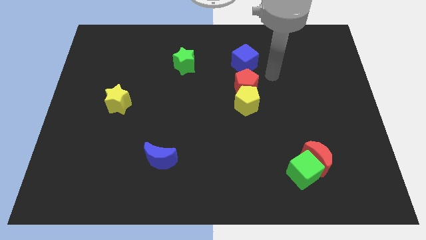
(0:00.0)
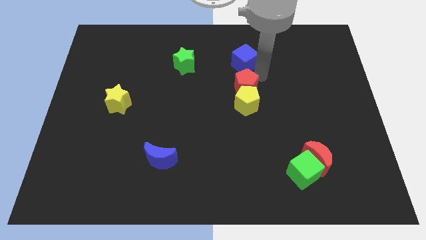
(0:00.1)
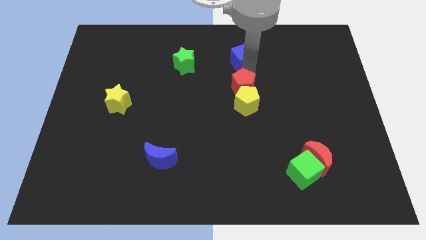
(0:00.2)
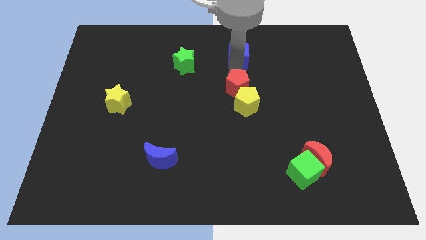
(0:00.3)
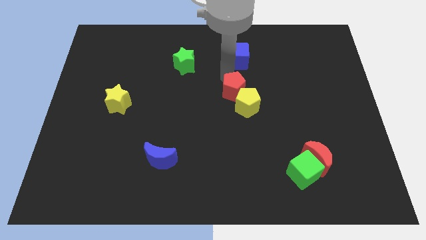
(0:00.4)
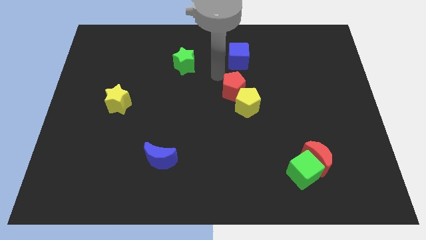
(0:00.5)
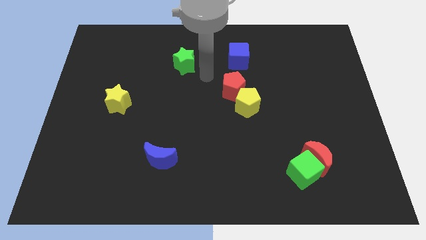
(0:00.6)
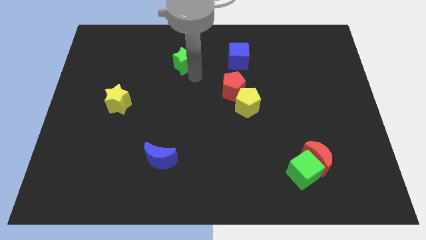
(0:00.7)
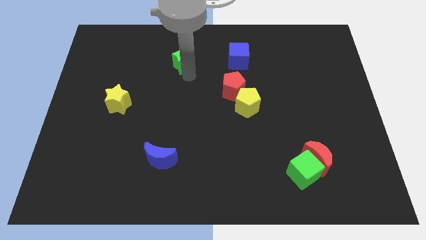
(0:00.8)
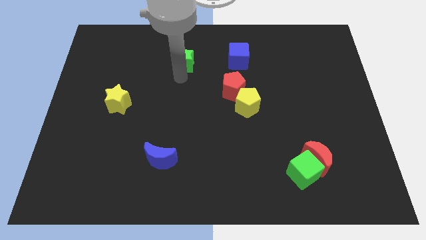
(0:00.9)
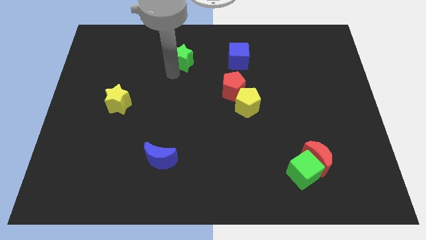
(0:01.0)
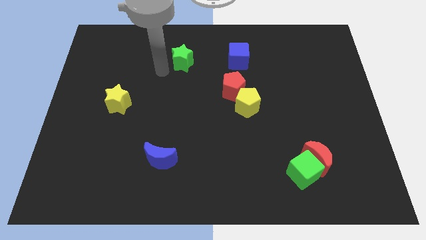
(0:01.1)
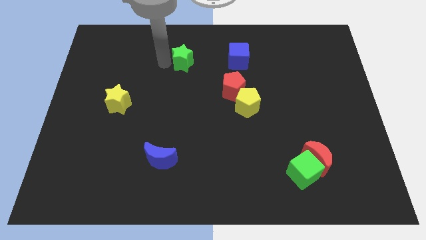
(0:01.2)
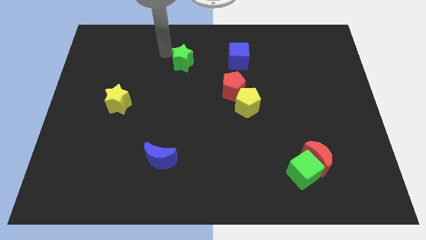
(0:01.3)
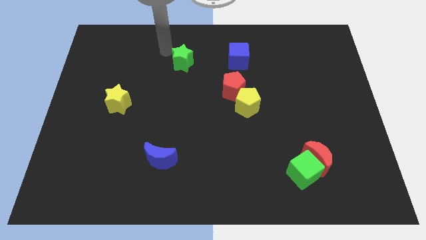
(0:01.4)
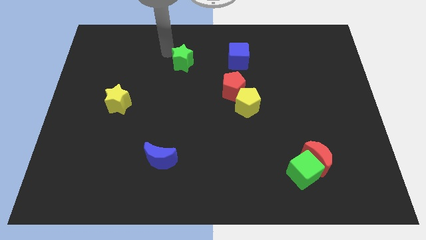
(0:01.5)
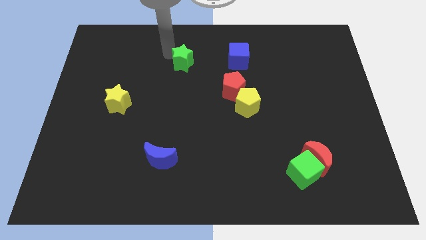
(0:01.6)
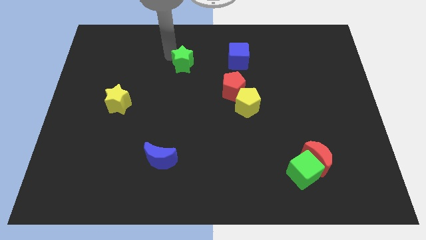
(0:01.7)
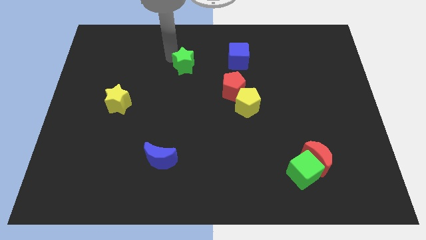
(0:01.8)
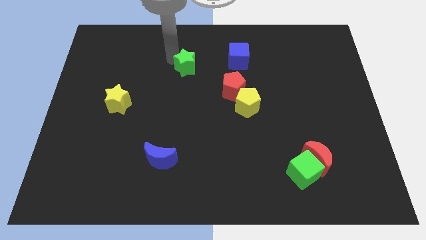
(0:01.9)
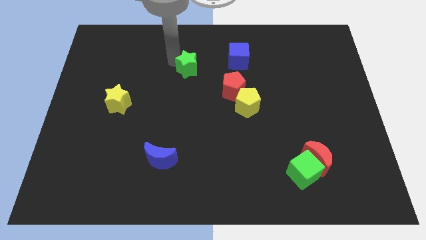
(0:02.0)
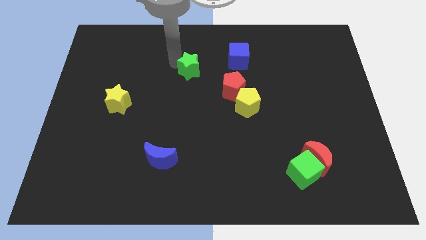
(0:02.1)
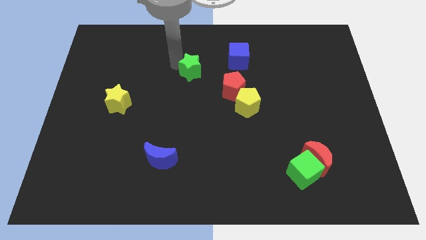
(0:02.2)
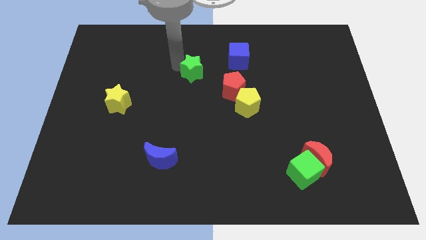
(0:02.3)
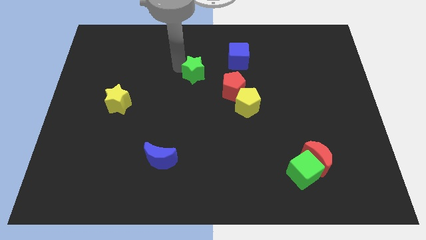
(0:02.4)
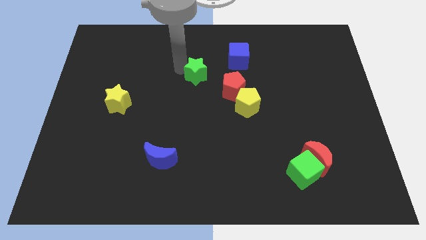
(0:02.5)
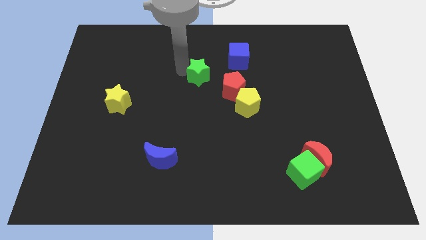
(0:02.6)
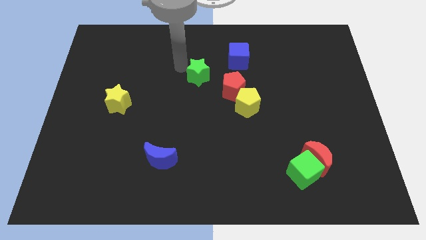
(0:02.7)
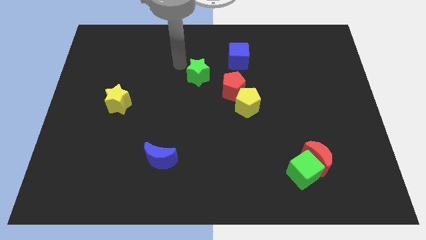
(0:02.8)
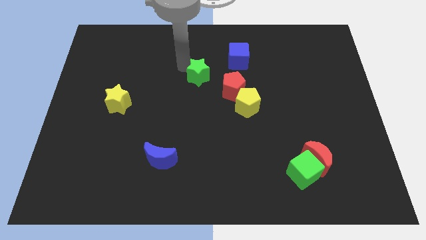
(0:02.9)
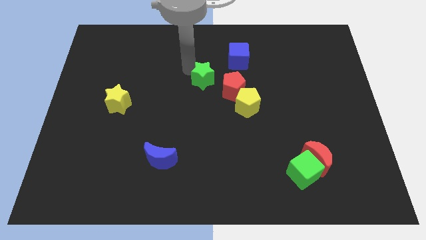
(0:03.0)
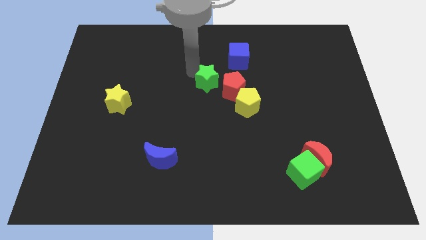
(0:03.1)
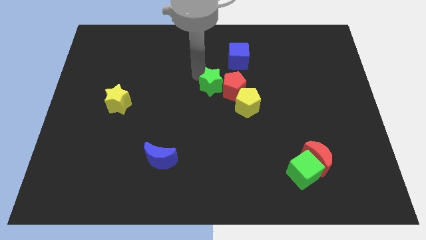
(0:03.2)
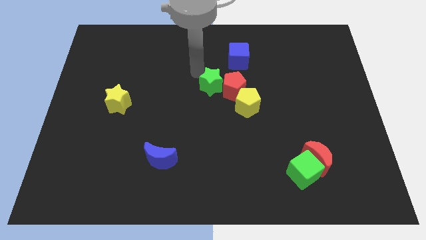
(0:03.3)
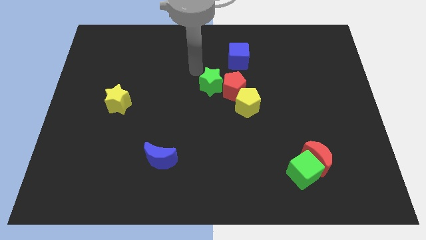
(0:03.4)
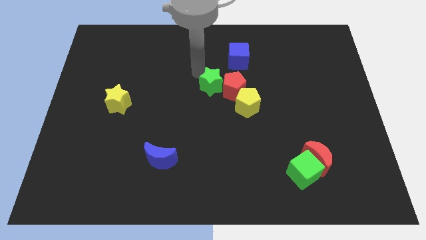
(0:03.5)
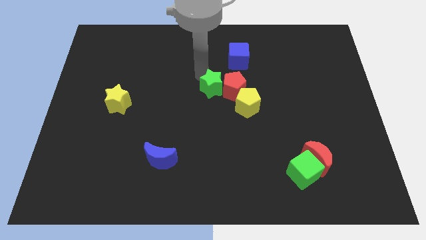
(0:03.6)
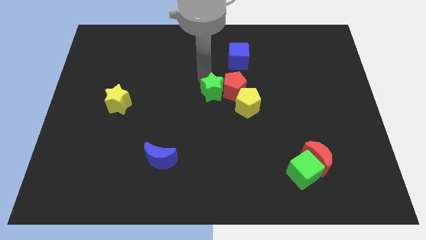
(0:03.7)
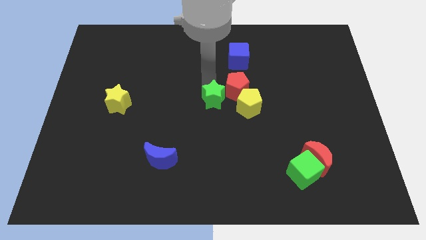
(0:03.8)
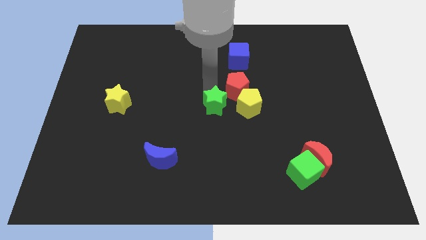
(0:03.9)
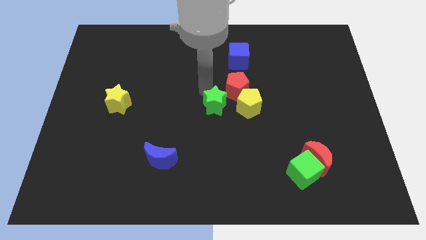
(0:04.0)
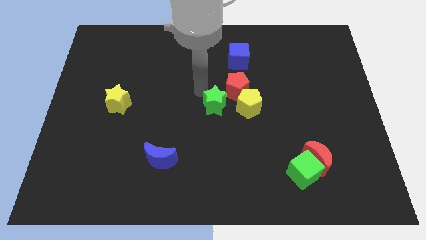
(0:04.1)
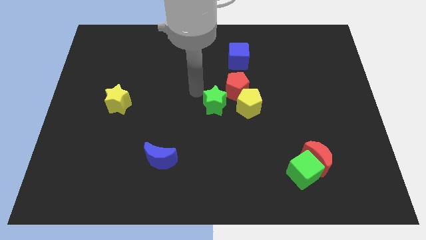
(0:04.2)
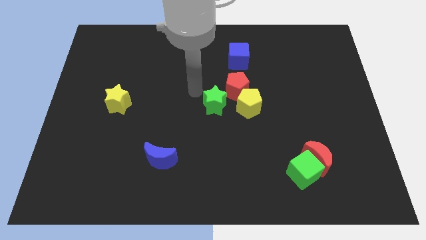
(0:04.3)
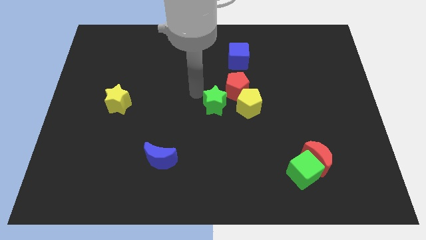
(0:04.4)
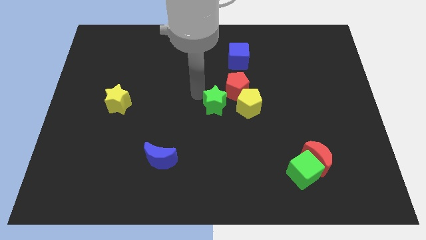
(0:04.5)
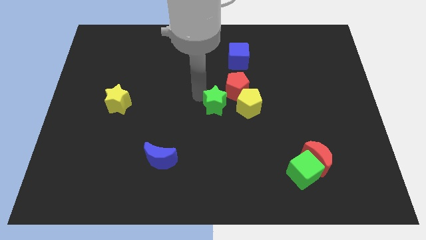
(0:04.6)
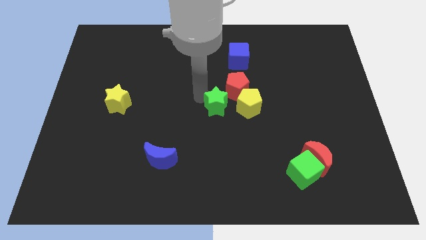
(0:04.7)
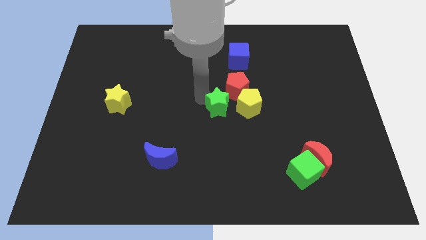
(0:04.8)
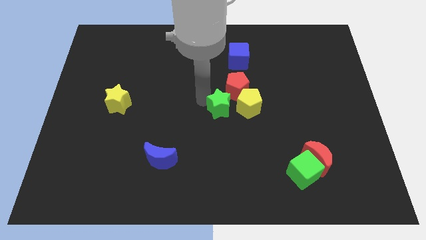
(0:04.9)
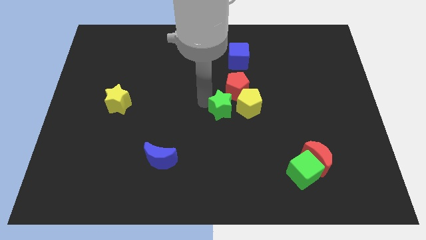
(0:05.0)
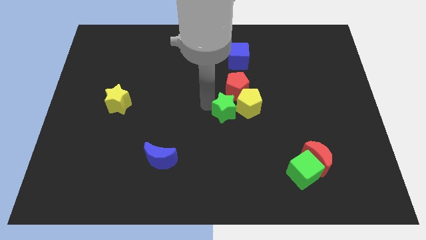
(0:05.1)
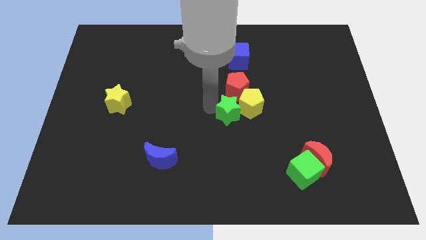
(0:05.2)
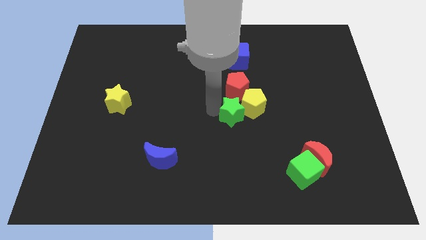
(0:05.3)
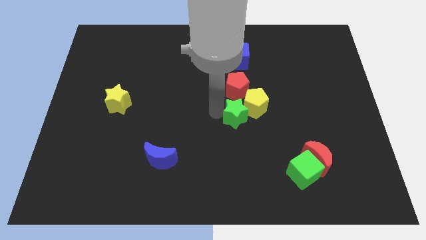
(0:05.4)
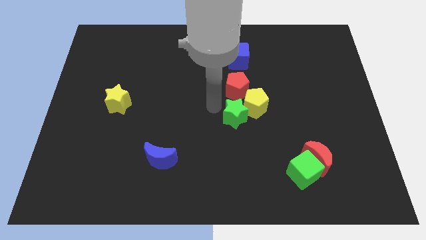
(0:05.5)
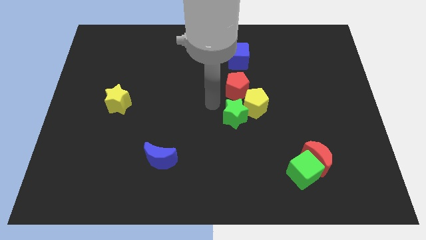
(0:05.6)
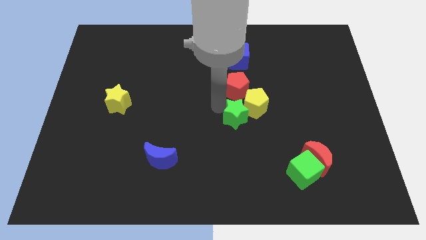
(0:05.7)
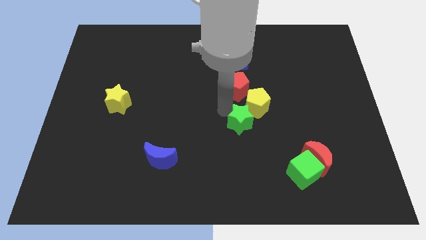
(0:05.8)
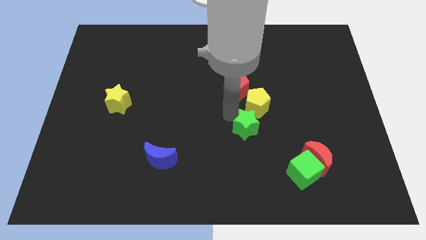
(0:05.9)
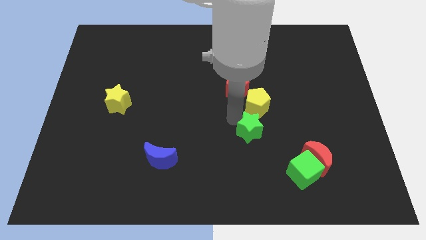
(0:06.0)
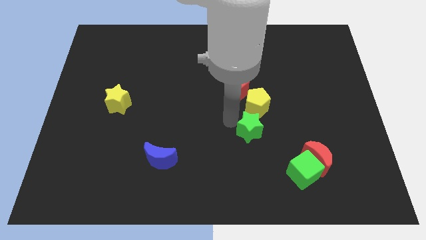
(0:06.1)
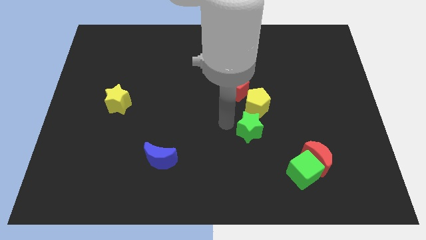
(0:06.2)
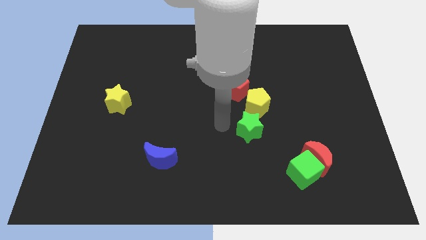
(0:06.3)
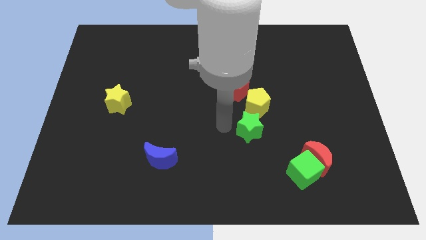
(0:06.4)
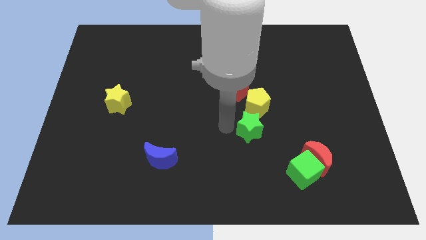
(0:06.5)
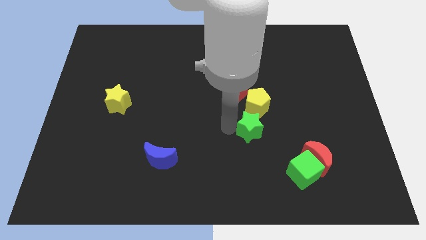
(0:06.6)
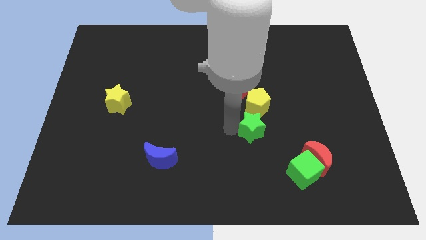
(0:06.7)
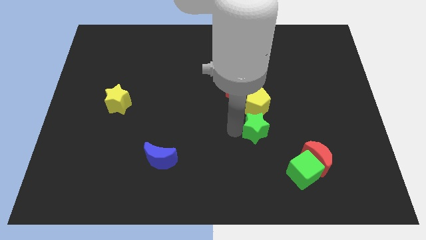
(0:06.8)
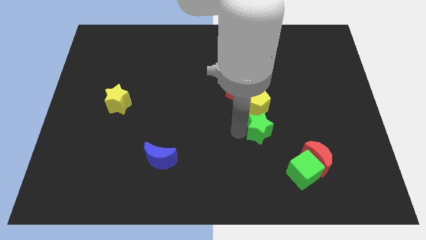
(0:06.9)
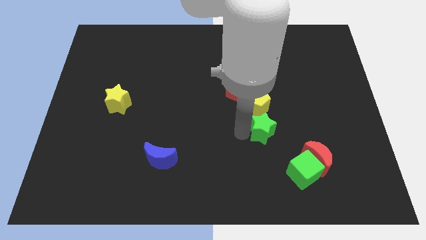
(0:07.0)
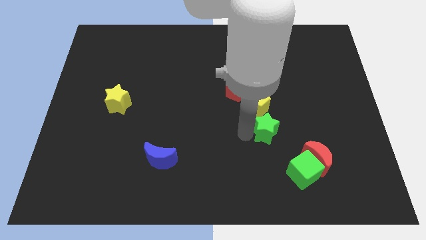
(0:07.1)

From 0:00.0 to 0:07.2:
move the green star to the top left side of the red moon
